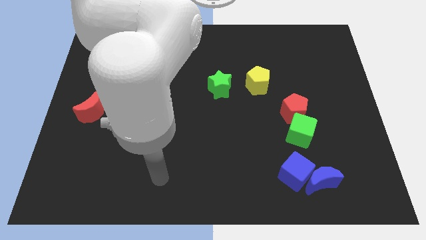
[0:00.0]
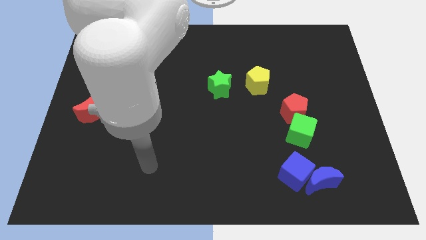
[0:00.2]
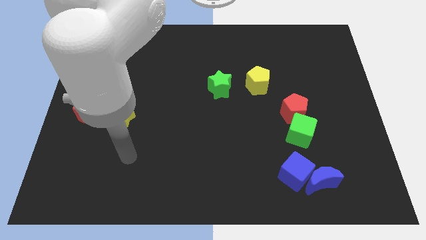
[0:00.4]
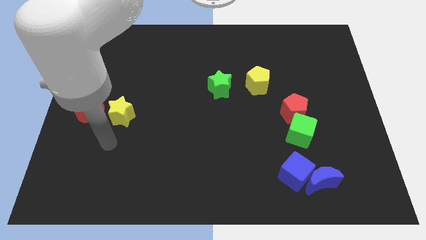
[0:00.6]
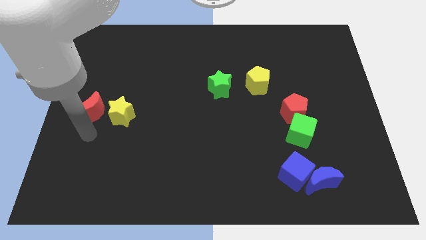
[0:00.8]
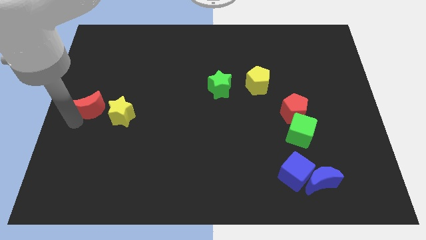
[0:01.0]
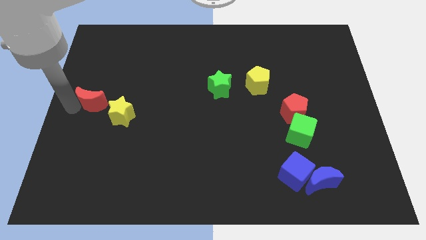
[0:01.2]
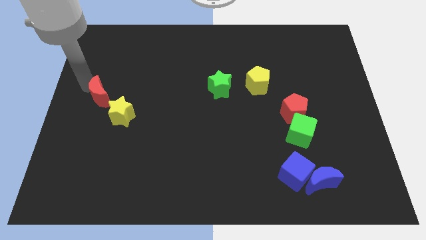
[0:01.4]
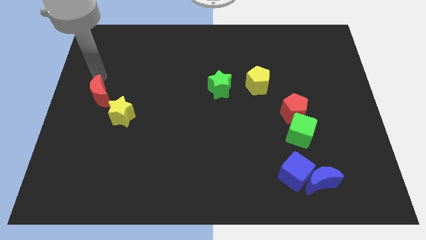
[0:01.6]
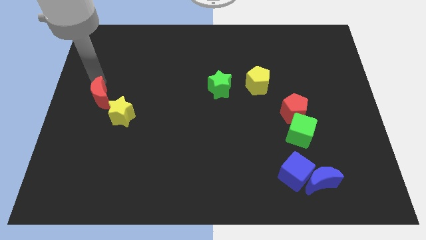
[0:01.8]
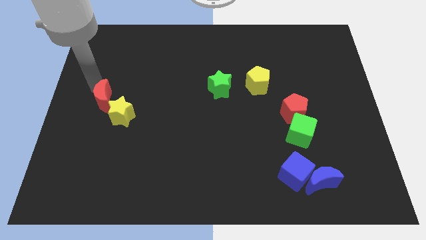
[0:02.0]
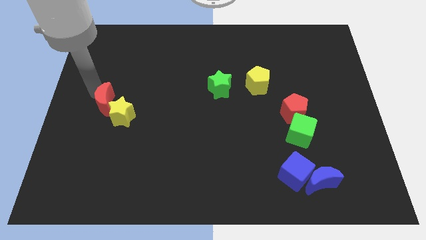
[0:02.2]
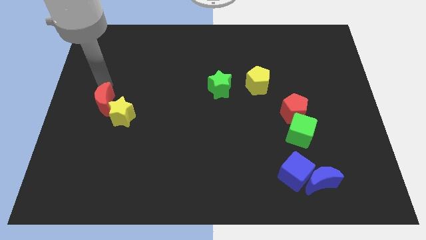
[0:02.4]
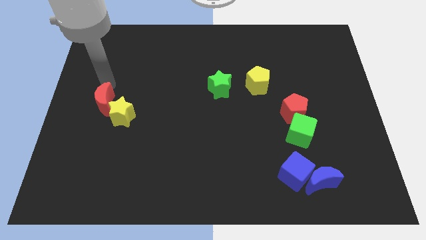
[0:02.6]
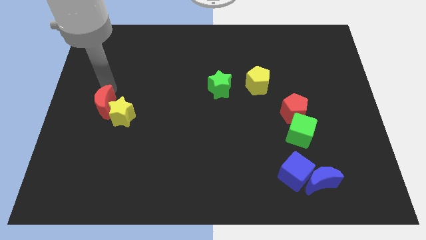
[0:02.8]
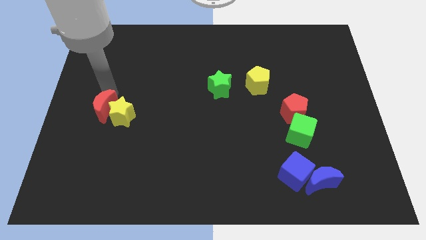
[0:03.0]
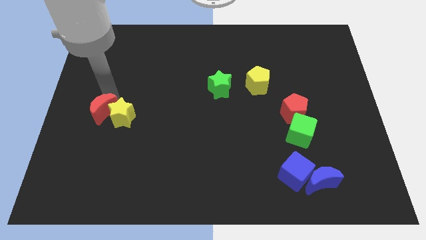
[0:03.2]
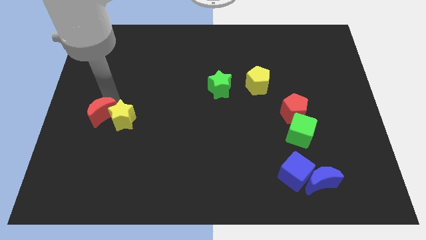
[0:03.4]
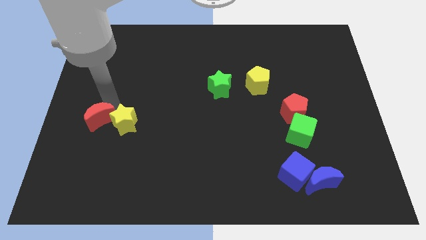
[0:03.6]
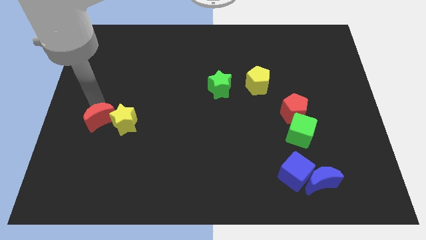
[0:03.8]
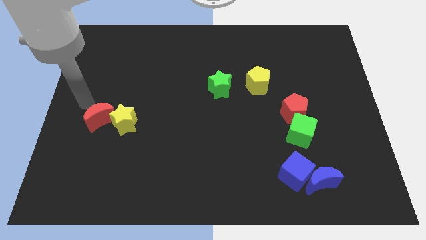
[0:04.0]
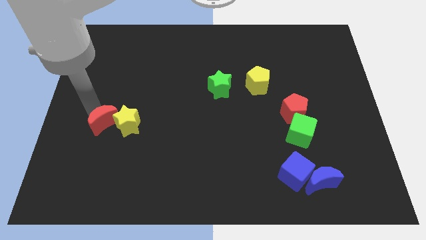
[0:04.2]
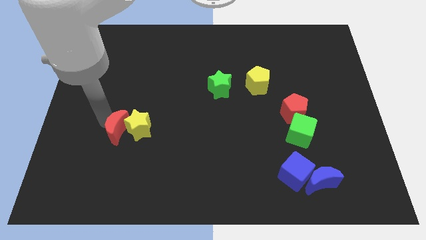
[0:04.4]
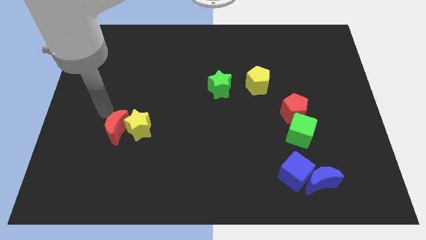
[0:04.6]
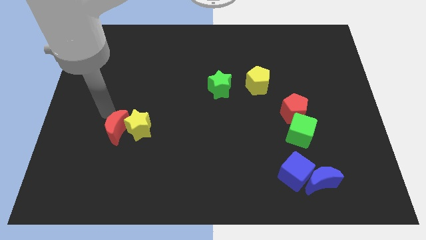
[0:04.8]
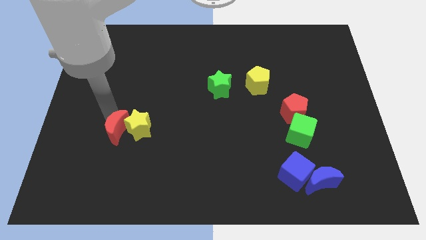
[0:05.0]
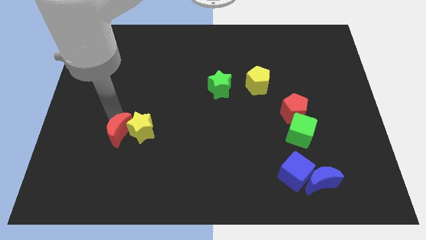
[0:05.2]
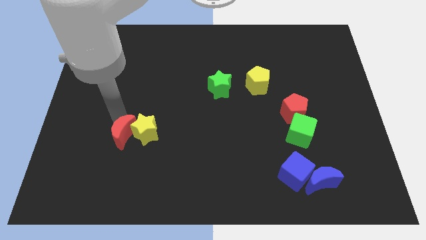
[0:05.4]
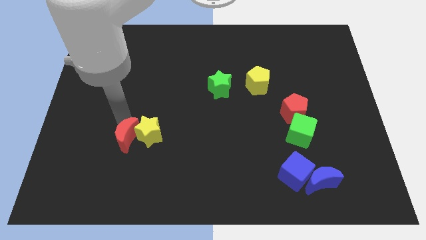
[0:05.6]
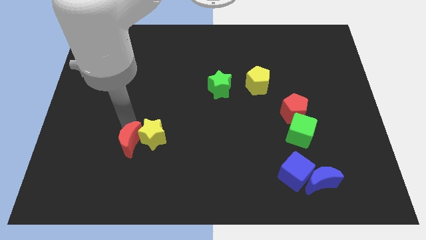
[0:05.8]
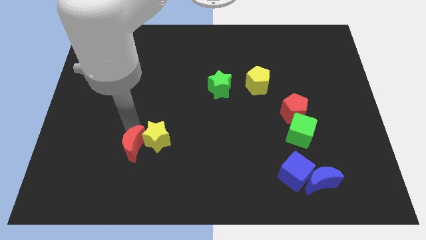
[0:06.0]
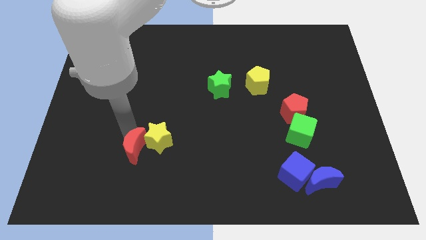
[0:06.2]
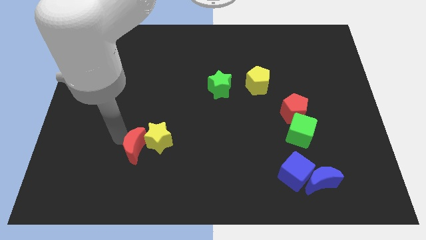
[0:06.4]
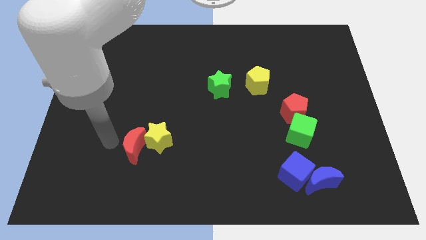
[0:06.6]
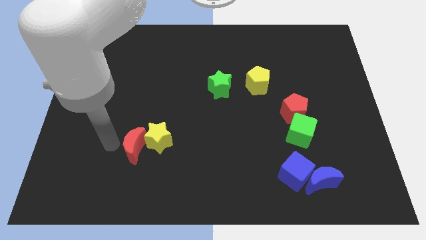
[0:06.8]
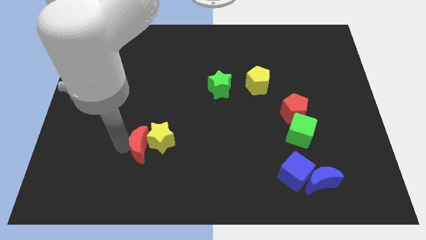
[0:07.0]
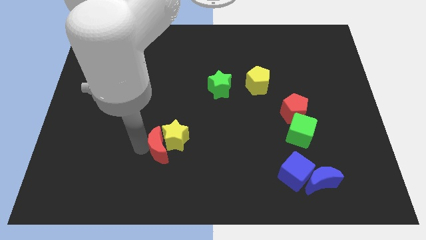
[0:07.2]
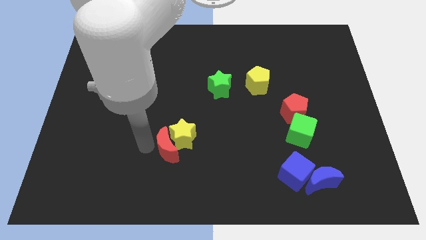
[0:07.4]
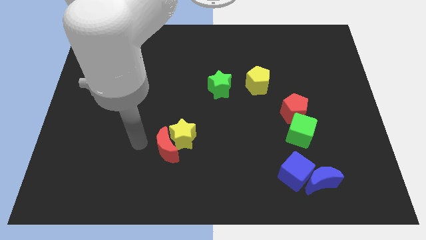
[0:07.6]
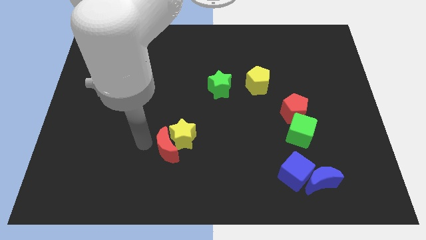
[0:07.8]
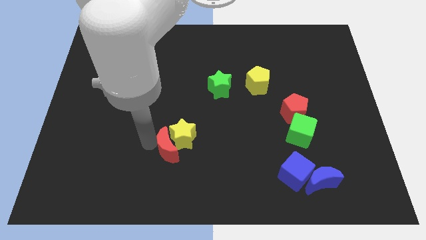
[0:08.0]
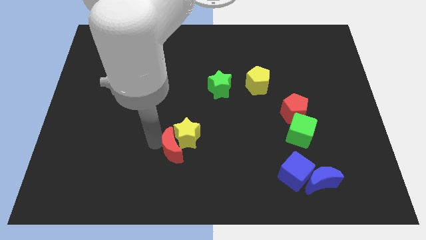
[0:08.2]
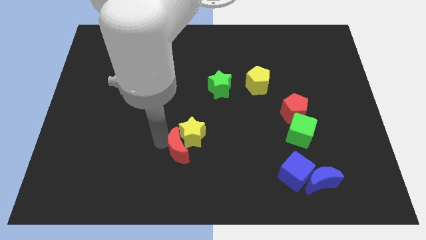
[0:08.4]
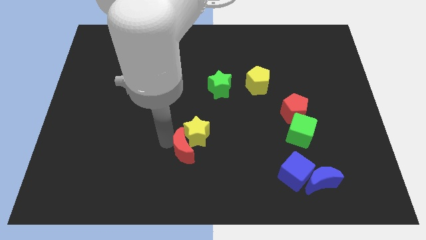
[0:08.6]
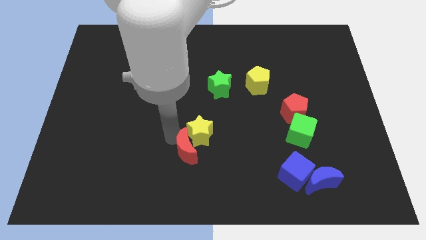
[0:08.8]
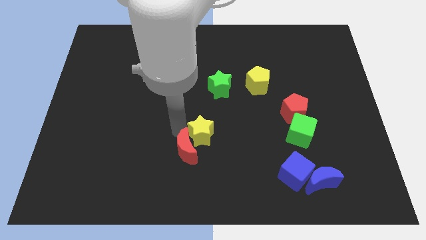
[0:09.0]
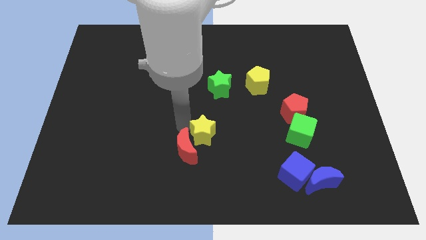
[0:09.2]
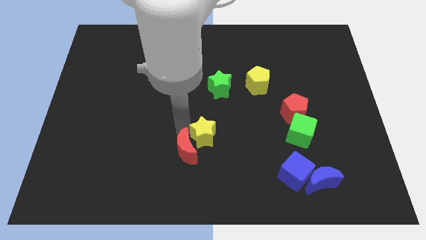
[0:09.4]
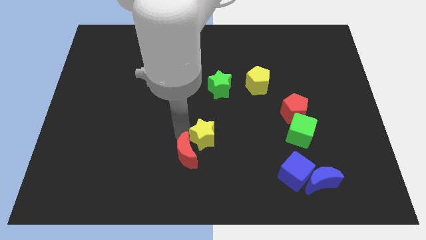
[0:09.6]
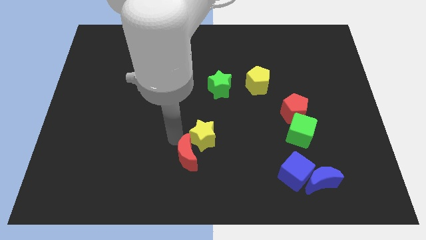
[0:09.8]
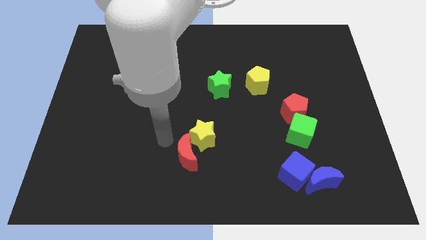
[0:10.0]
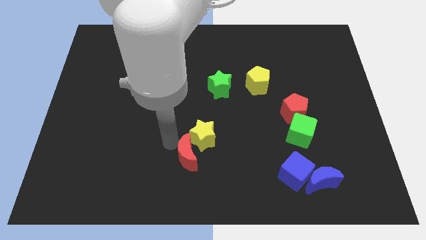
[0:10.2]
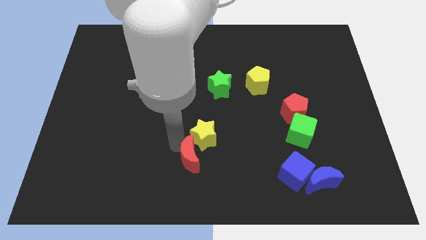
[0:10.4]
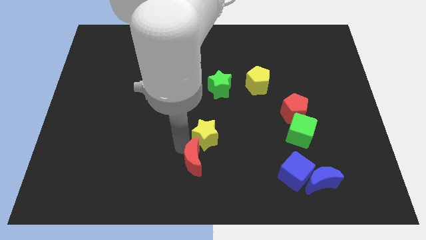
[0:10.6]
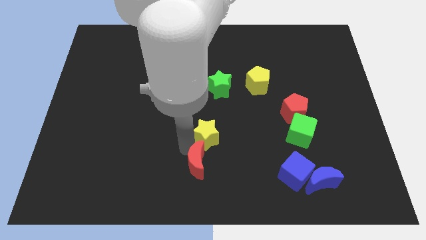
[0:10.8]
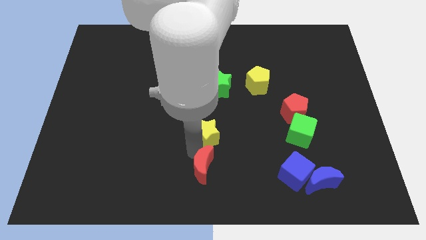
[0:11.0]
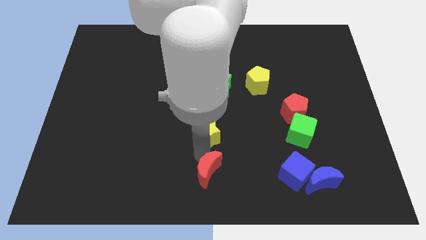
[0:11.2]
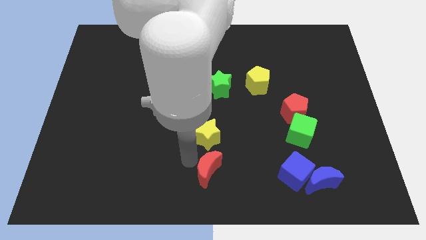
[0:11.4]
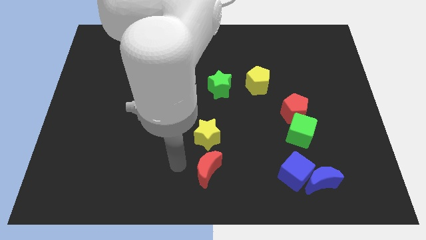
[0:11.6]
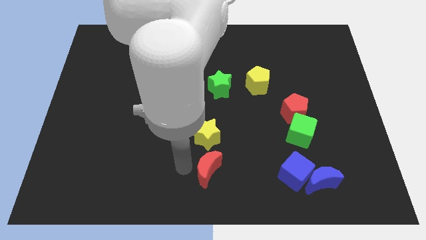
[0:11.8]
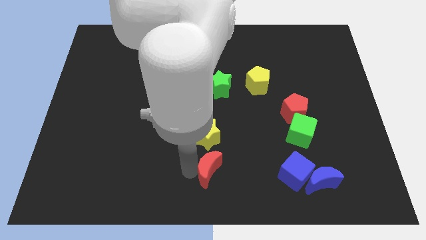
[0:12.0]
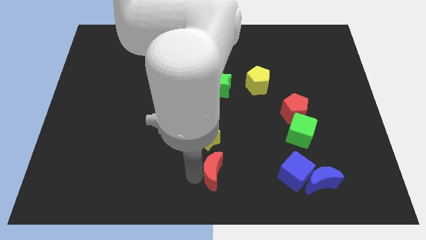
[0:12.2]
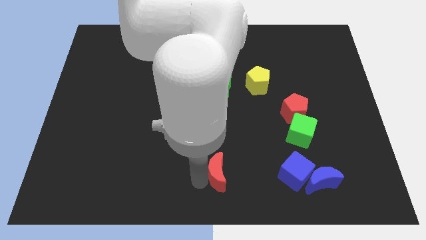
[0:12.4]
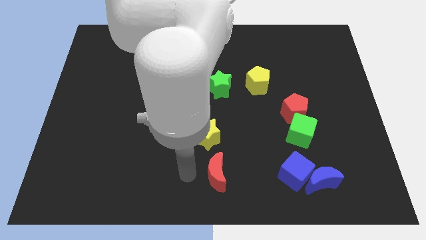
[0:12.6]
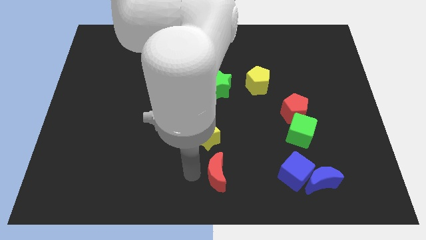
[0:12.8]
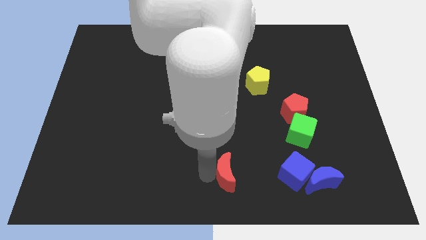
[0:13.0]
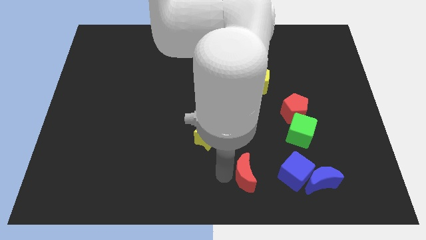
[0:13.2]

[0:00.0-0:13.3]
move the red moon left of the blue moon
